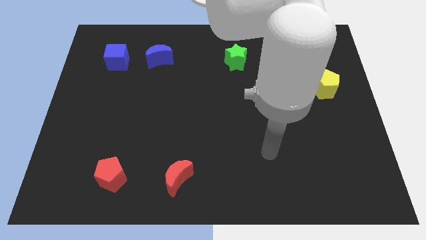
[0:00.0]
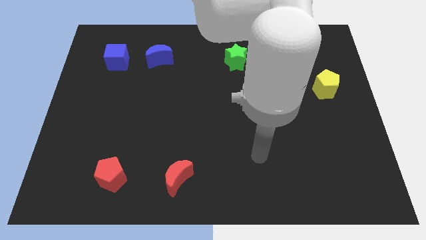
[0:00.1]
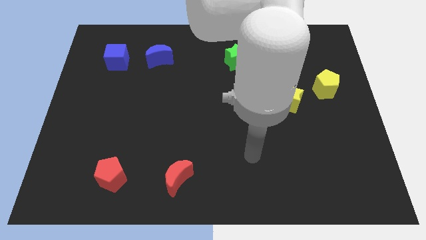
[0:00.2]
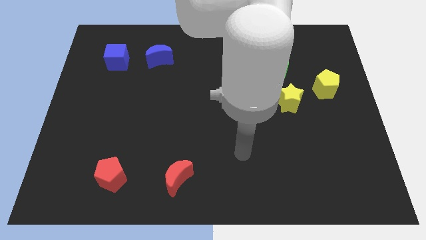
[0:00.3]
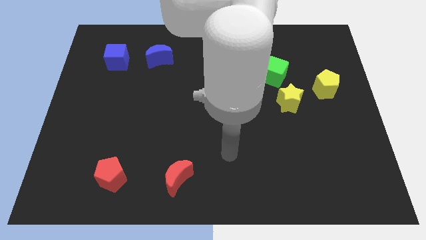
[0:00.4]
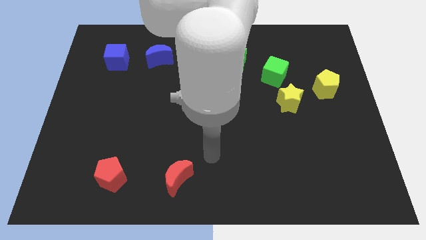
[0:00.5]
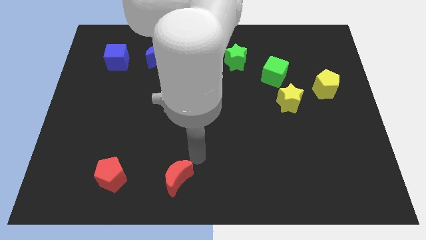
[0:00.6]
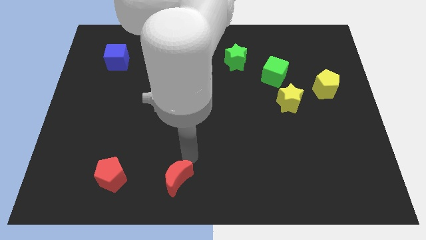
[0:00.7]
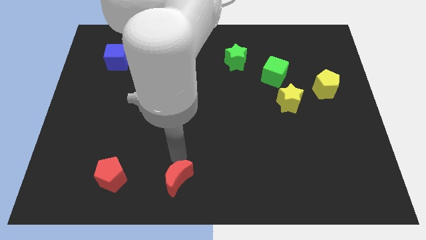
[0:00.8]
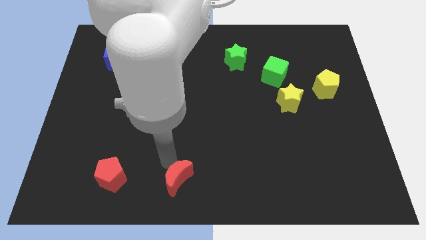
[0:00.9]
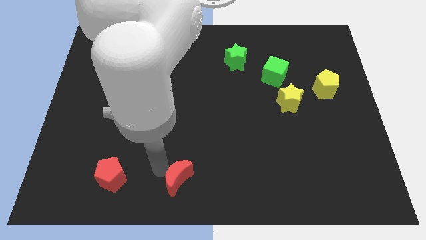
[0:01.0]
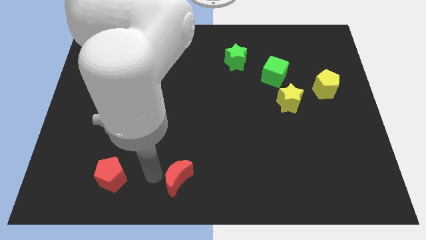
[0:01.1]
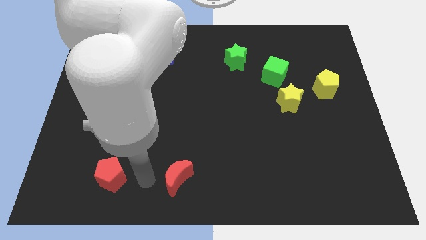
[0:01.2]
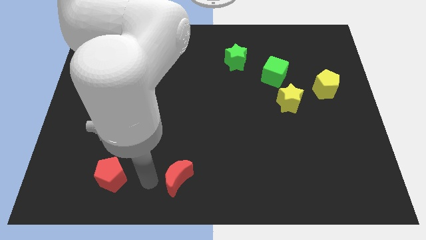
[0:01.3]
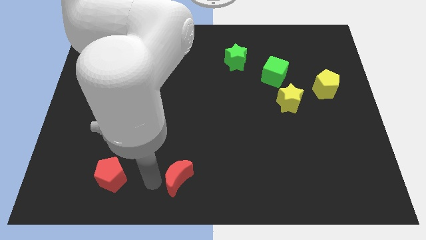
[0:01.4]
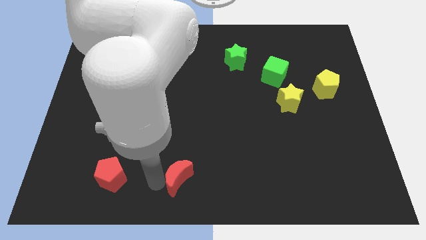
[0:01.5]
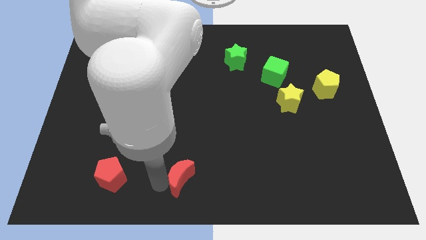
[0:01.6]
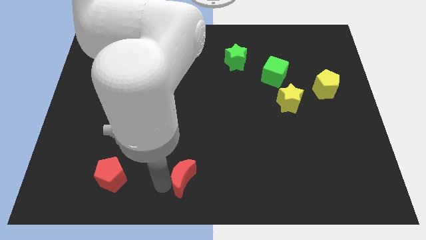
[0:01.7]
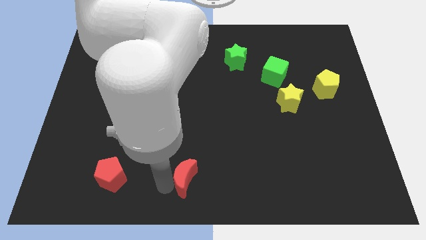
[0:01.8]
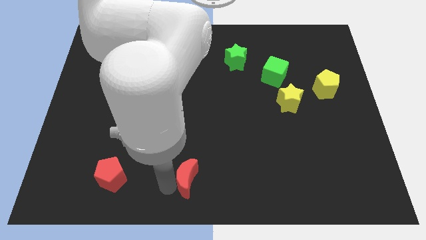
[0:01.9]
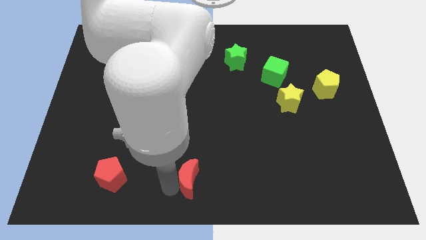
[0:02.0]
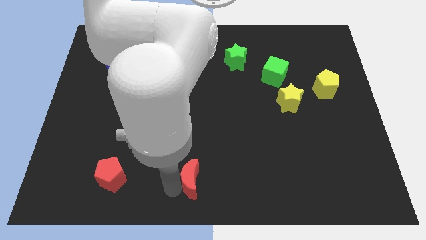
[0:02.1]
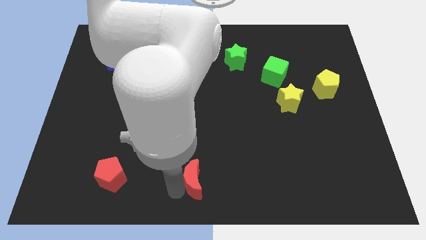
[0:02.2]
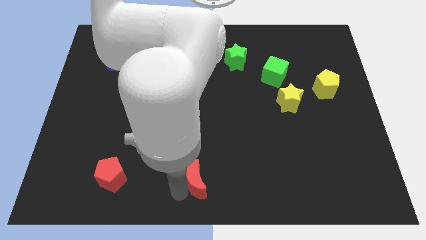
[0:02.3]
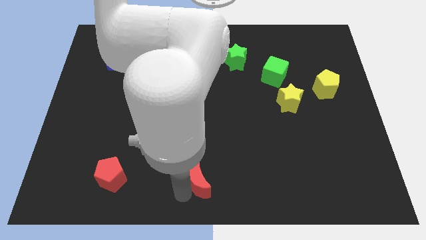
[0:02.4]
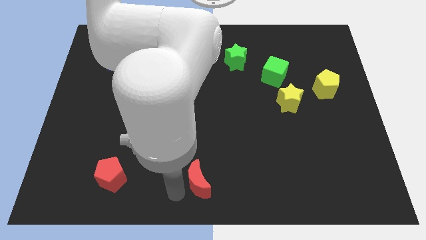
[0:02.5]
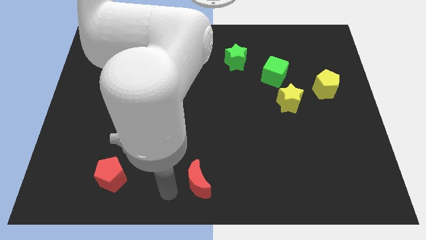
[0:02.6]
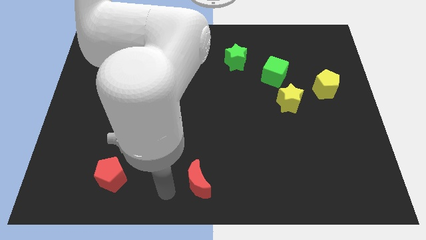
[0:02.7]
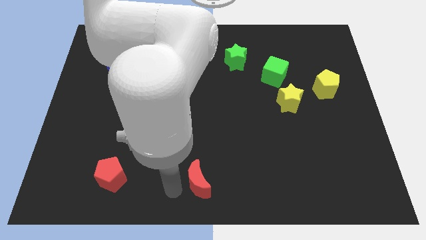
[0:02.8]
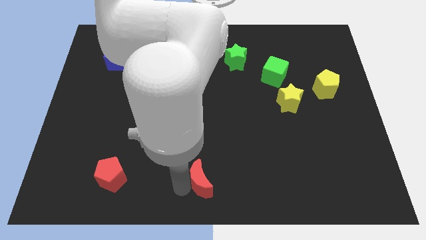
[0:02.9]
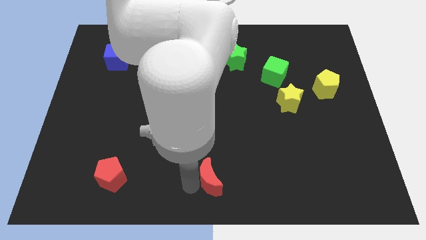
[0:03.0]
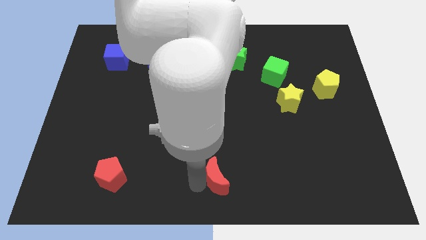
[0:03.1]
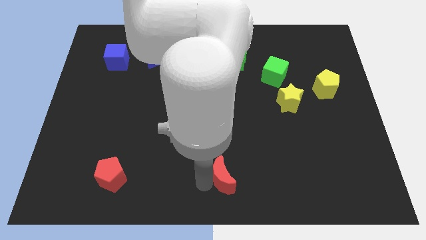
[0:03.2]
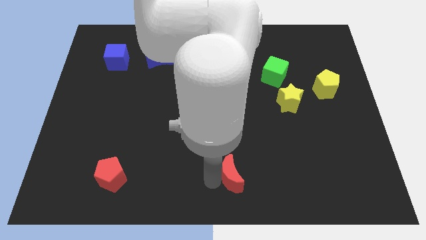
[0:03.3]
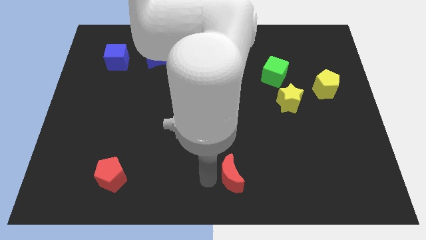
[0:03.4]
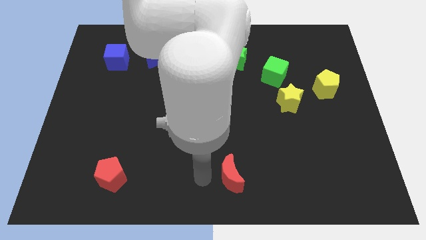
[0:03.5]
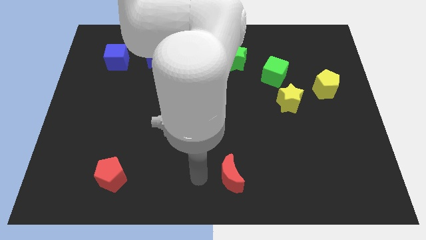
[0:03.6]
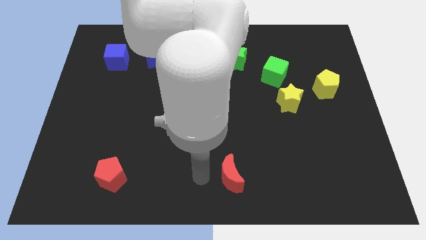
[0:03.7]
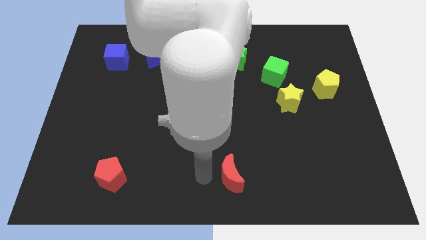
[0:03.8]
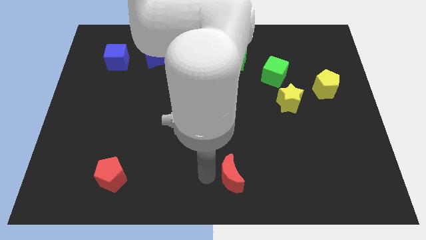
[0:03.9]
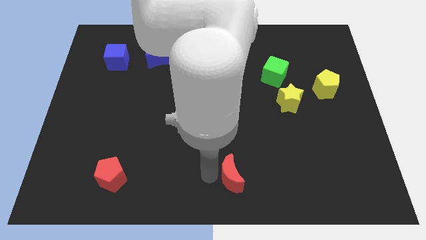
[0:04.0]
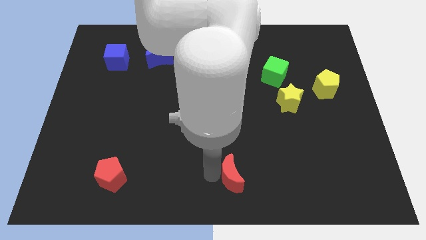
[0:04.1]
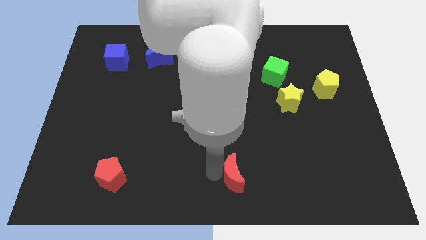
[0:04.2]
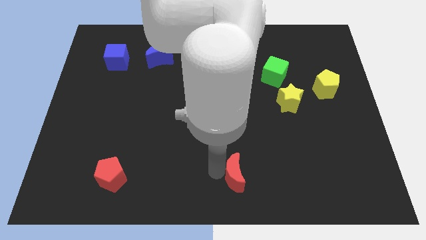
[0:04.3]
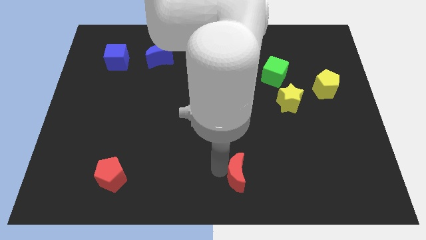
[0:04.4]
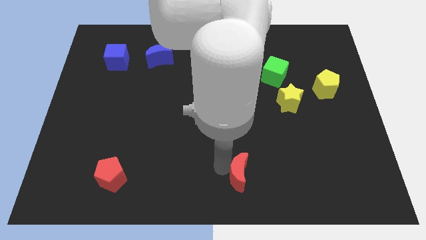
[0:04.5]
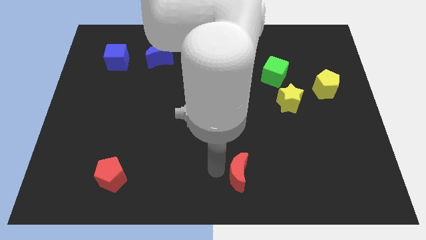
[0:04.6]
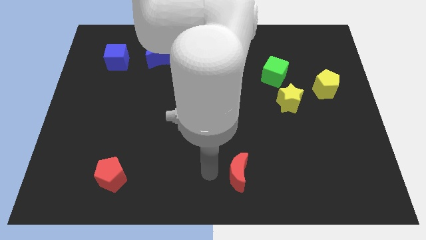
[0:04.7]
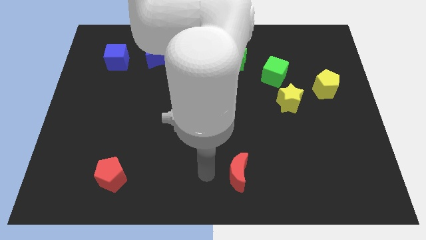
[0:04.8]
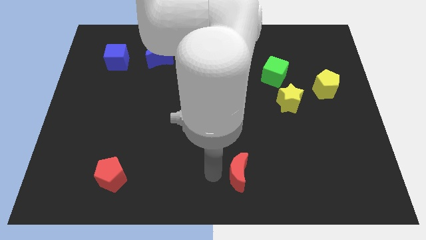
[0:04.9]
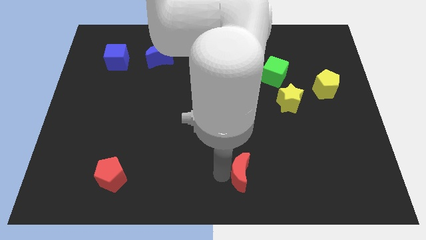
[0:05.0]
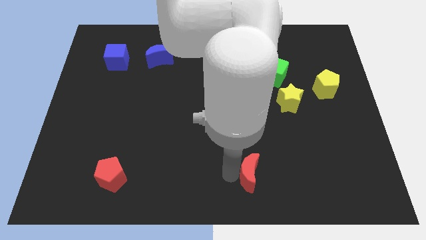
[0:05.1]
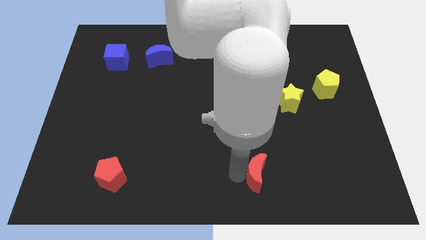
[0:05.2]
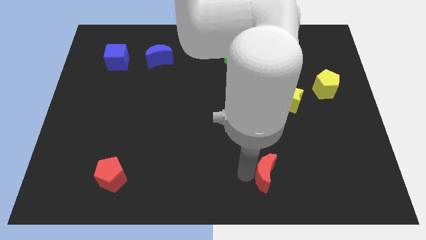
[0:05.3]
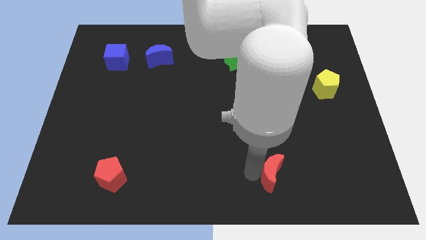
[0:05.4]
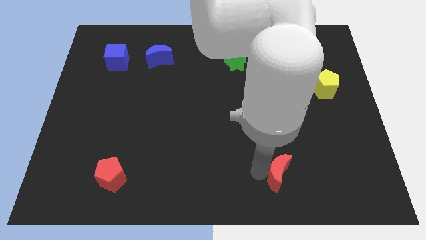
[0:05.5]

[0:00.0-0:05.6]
move the red moon right

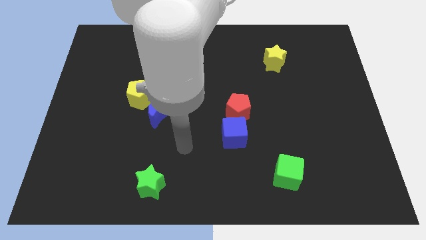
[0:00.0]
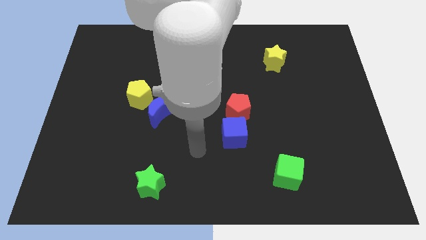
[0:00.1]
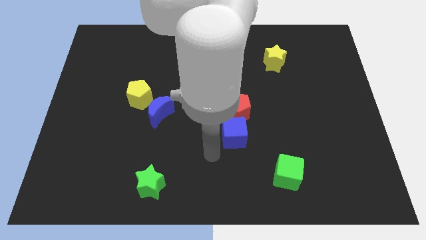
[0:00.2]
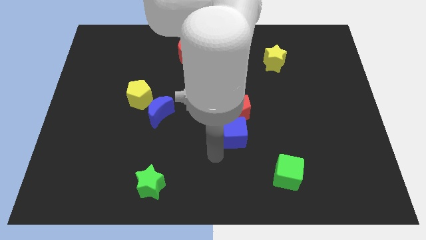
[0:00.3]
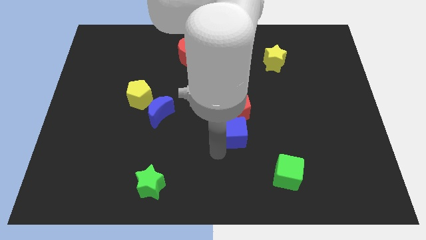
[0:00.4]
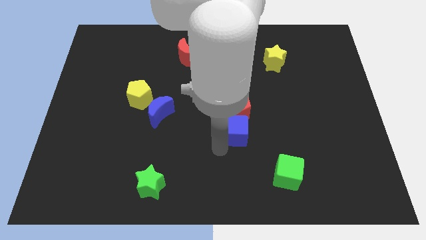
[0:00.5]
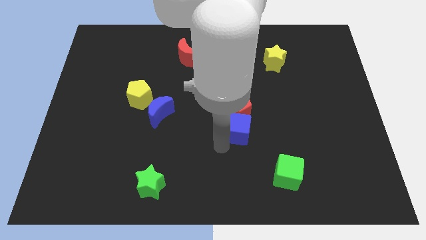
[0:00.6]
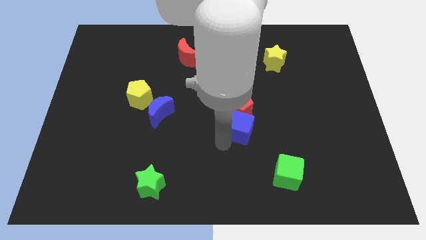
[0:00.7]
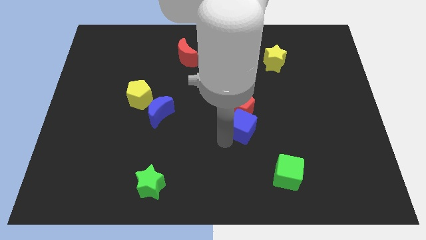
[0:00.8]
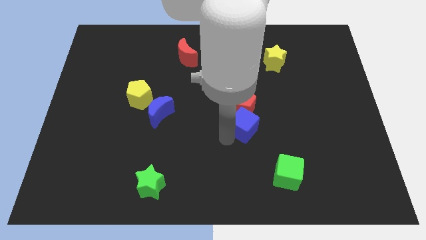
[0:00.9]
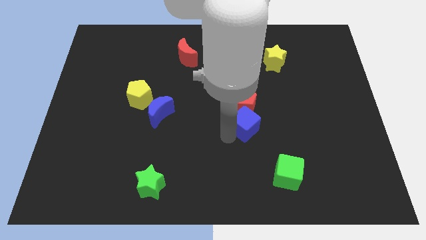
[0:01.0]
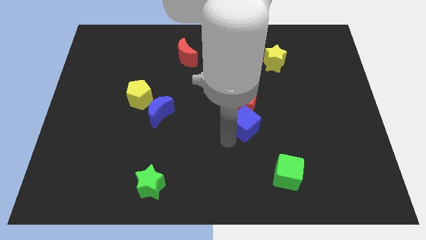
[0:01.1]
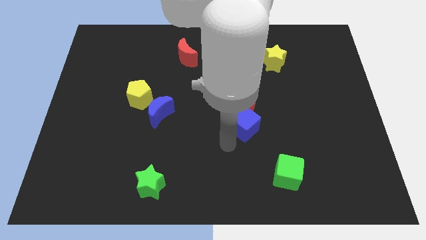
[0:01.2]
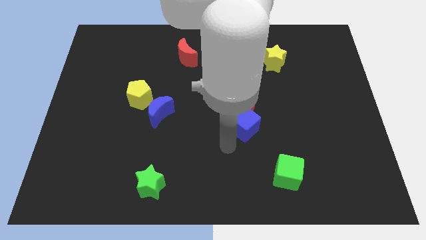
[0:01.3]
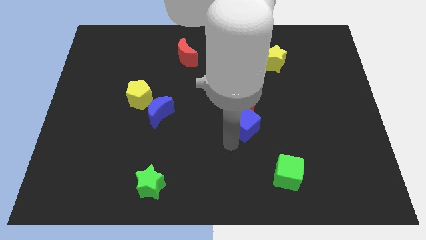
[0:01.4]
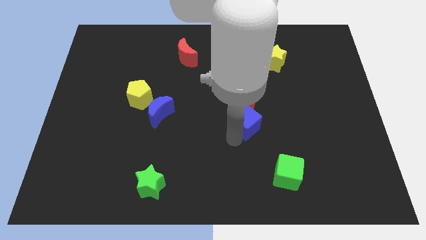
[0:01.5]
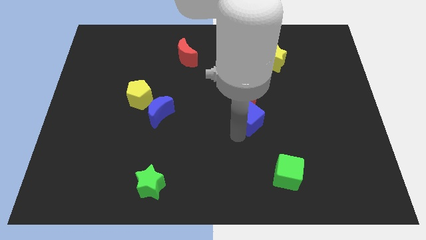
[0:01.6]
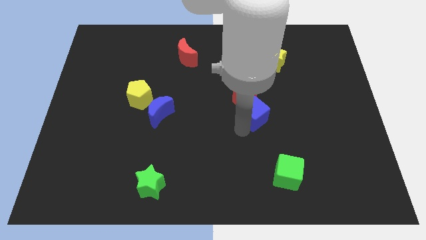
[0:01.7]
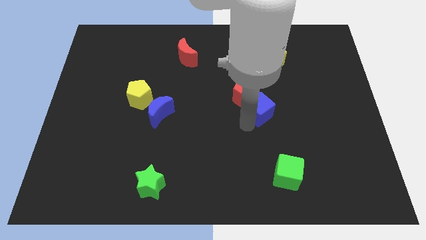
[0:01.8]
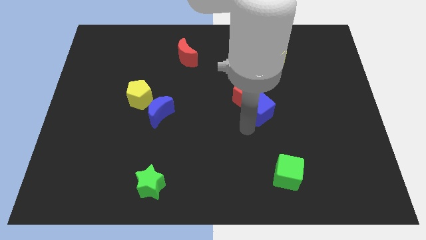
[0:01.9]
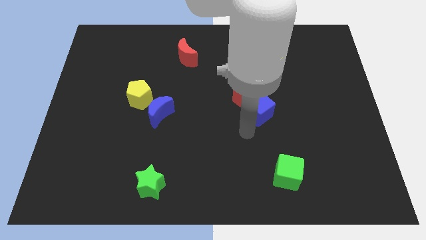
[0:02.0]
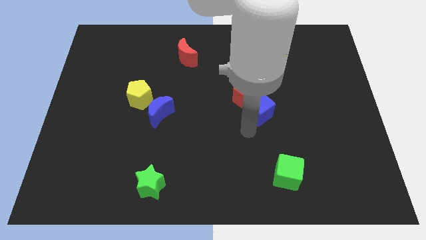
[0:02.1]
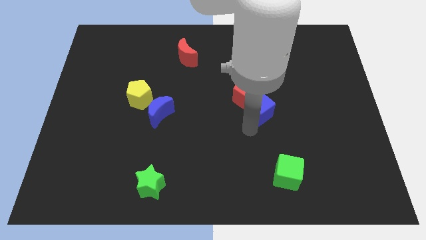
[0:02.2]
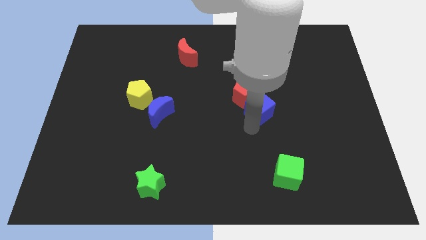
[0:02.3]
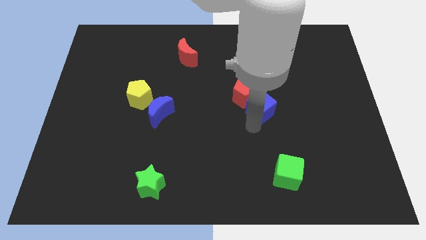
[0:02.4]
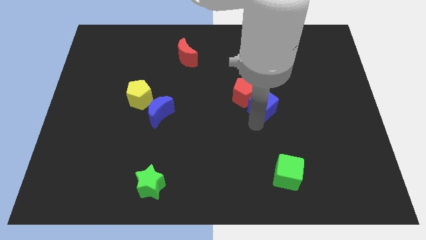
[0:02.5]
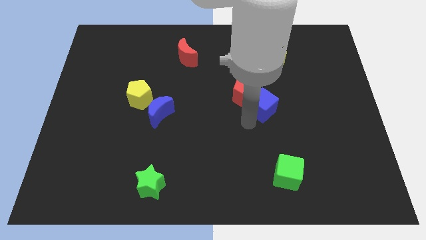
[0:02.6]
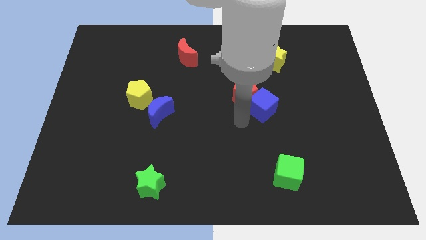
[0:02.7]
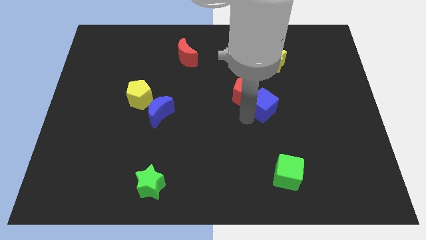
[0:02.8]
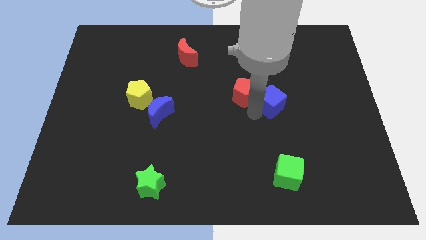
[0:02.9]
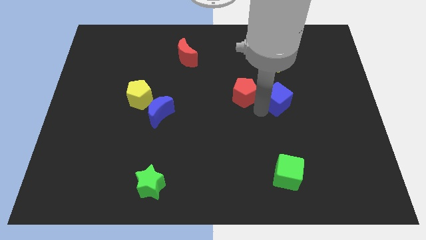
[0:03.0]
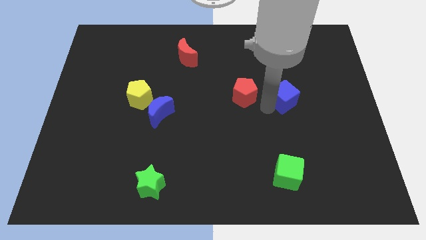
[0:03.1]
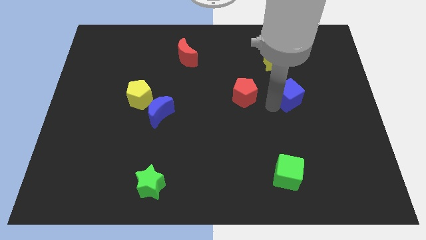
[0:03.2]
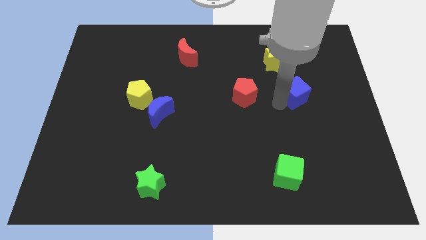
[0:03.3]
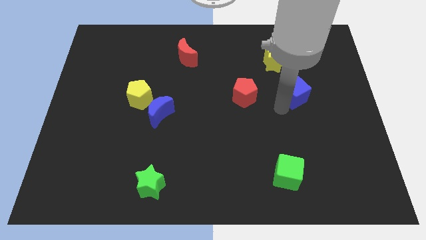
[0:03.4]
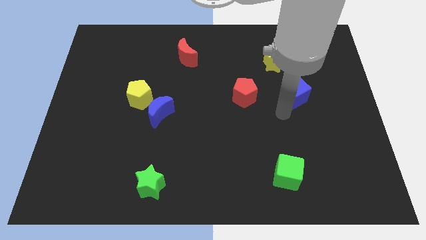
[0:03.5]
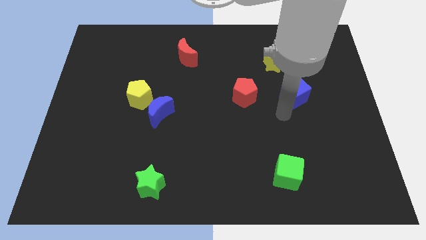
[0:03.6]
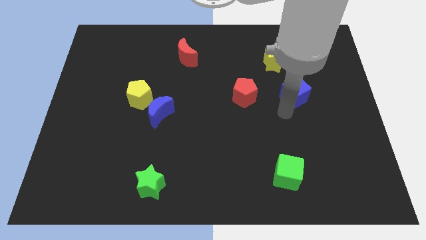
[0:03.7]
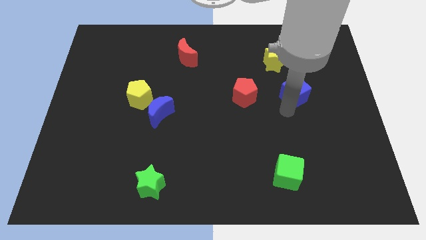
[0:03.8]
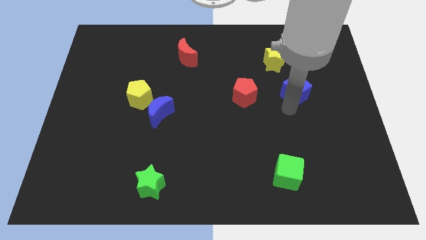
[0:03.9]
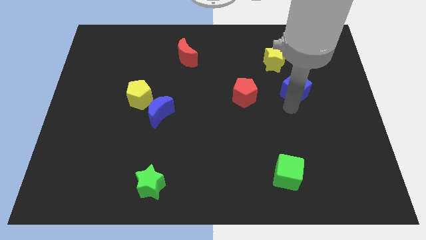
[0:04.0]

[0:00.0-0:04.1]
slide the blue cube up and right diagonally
